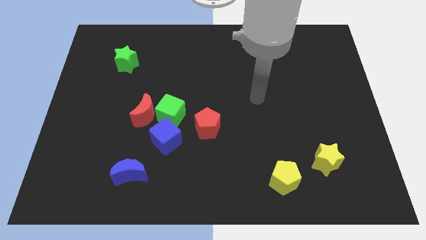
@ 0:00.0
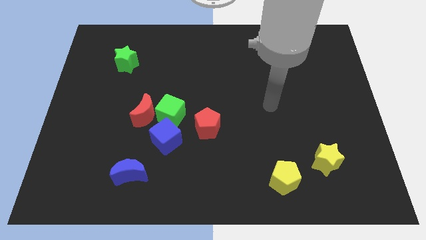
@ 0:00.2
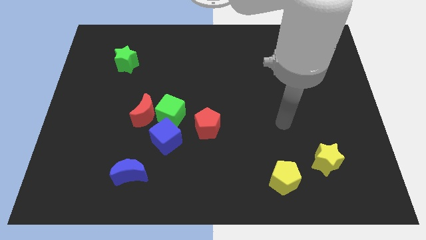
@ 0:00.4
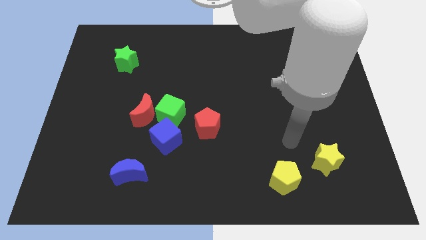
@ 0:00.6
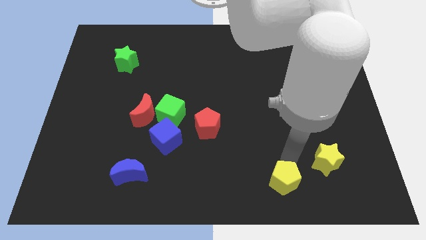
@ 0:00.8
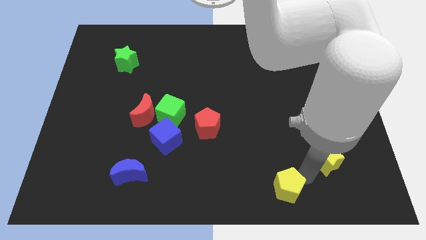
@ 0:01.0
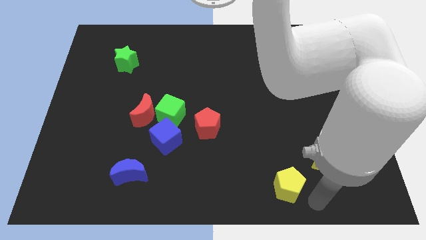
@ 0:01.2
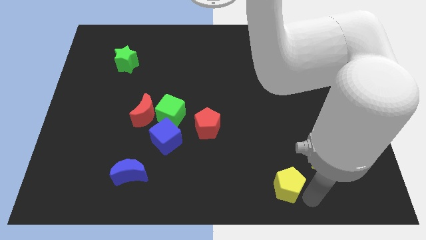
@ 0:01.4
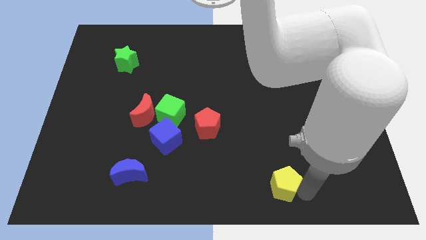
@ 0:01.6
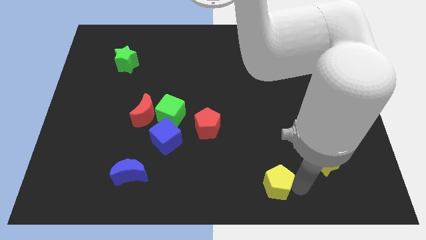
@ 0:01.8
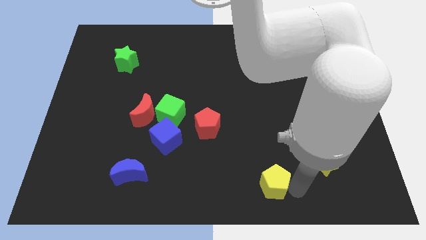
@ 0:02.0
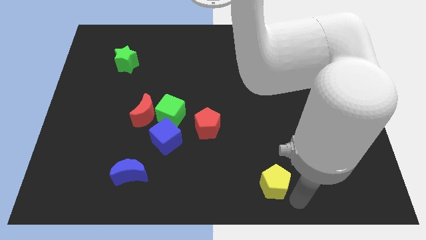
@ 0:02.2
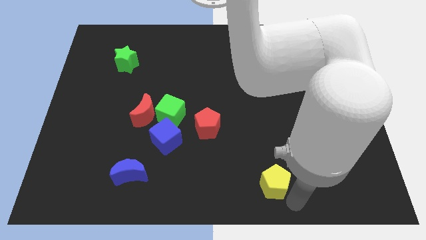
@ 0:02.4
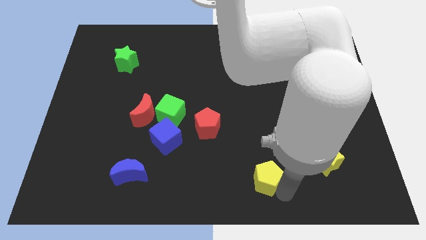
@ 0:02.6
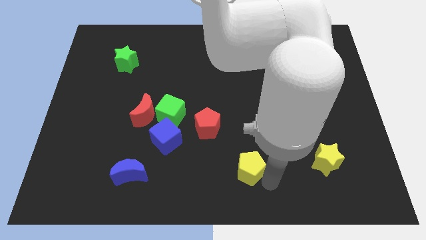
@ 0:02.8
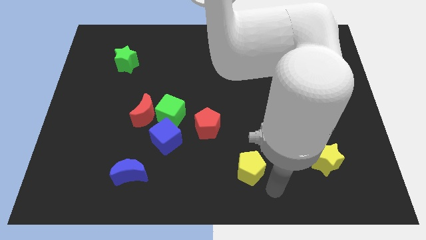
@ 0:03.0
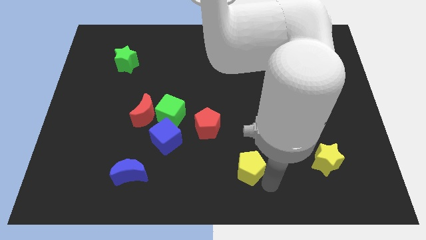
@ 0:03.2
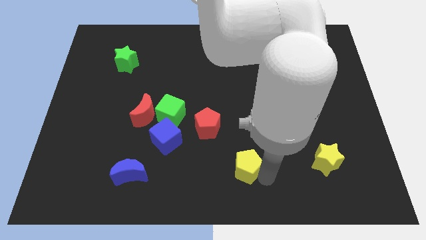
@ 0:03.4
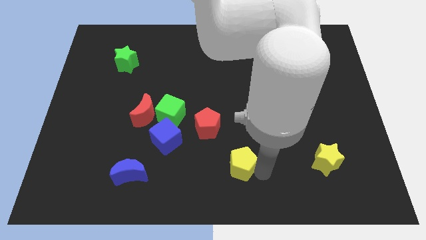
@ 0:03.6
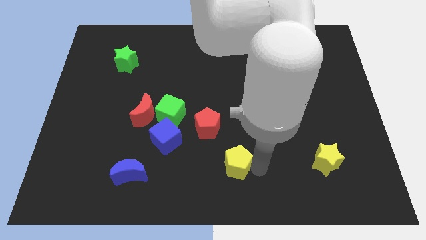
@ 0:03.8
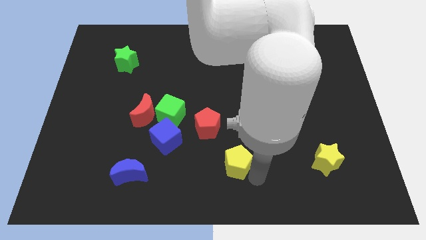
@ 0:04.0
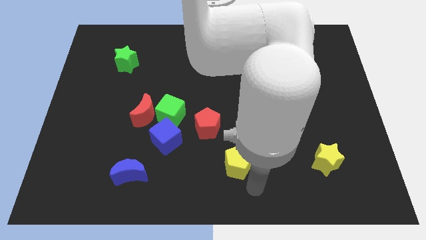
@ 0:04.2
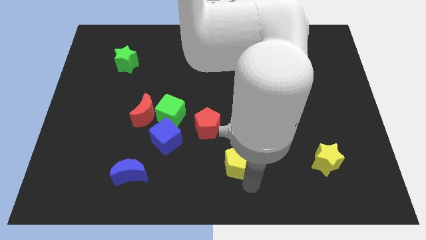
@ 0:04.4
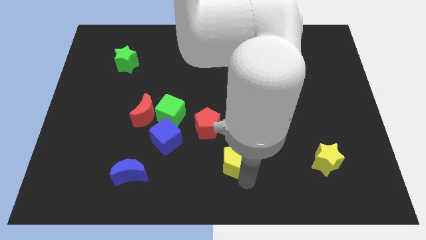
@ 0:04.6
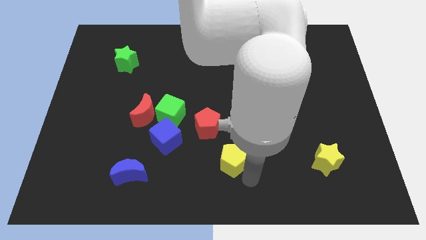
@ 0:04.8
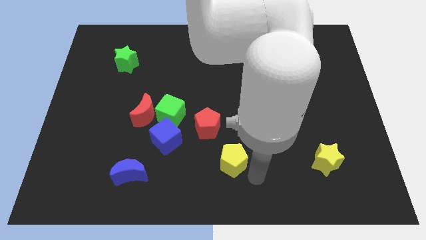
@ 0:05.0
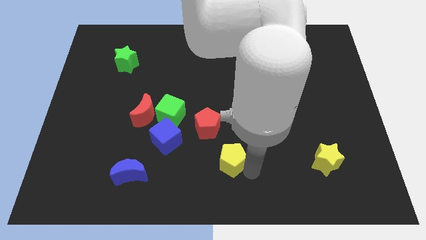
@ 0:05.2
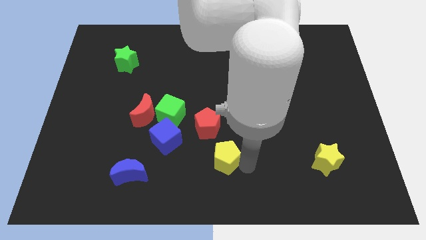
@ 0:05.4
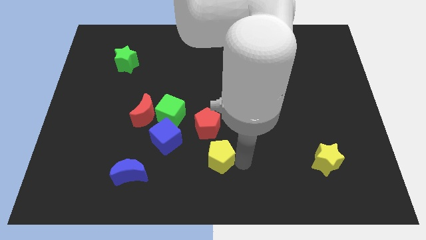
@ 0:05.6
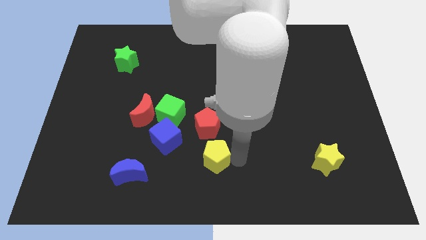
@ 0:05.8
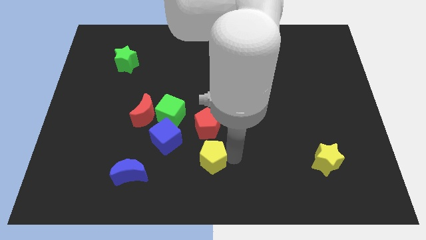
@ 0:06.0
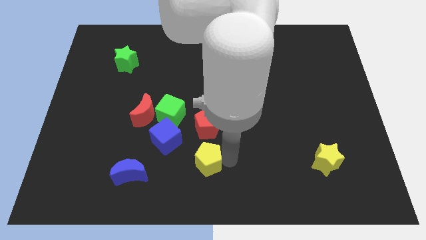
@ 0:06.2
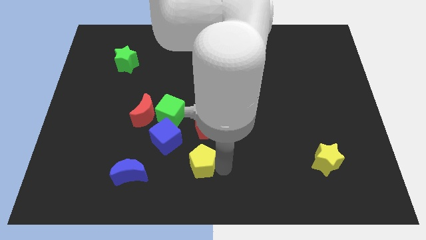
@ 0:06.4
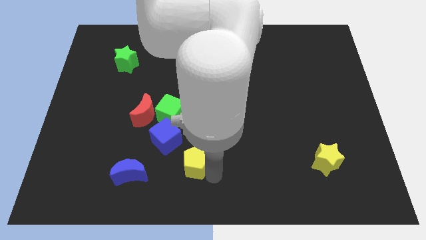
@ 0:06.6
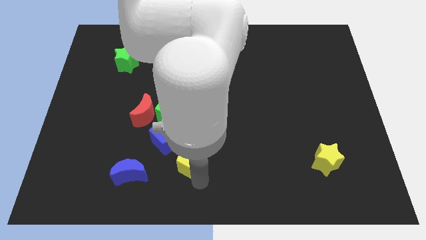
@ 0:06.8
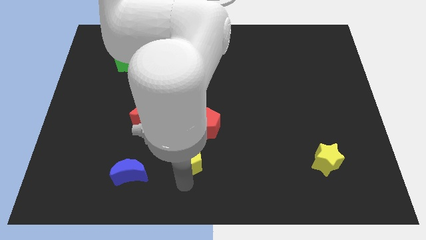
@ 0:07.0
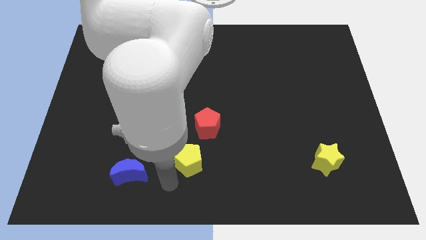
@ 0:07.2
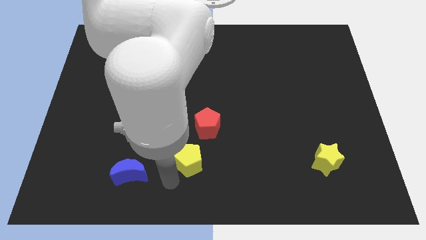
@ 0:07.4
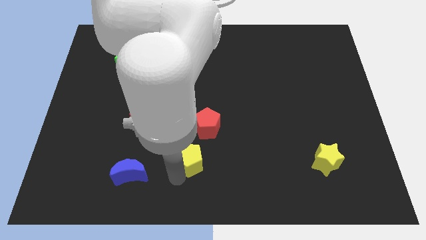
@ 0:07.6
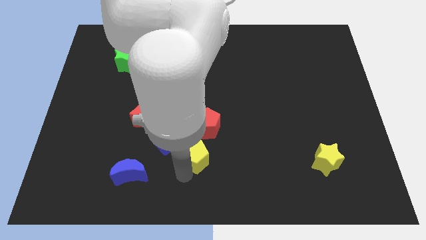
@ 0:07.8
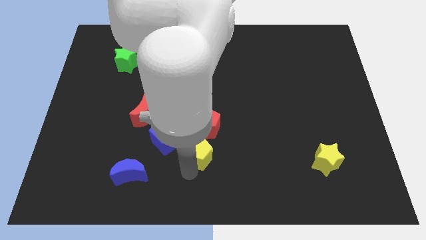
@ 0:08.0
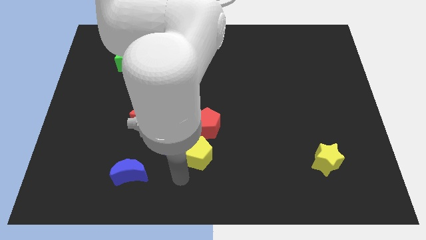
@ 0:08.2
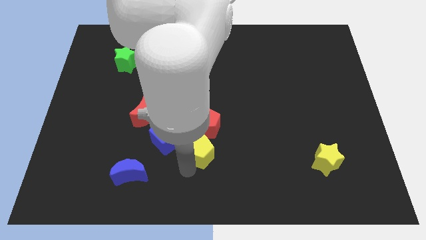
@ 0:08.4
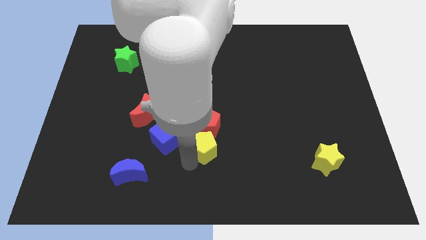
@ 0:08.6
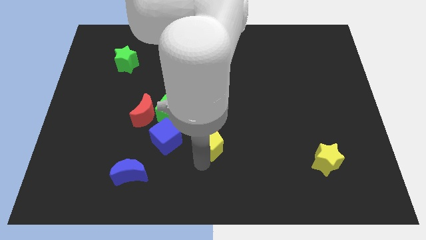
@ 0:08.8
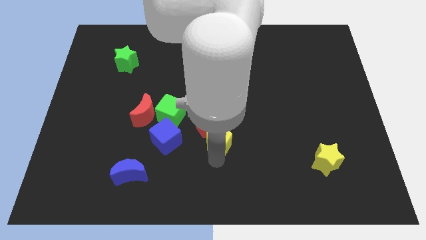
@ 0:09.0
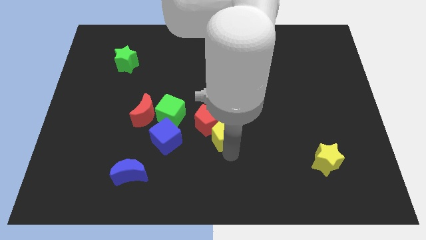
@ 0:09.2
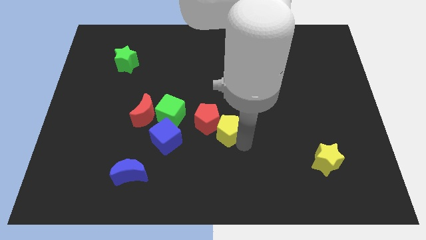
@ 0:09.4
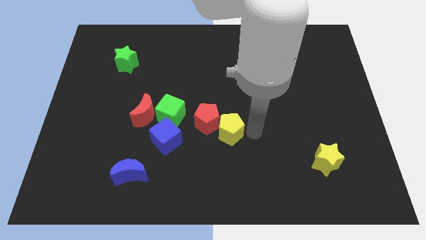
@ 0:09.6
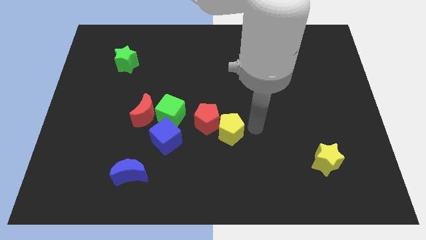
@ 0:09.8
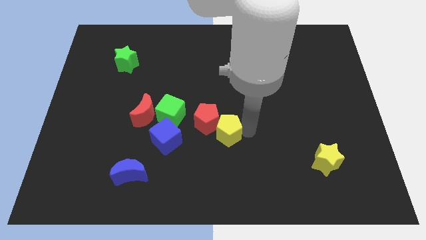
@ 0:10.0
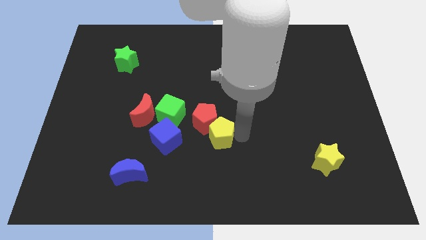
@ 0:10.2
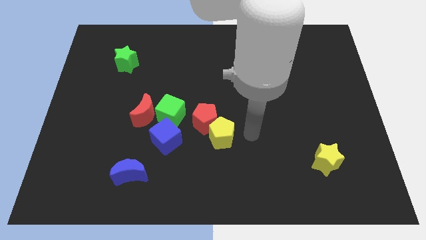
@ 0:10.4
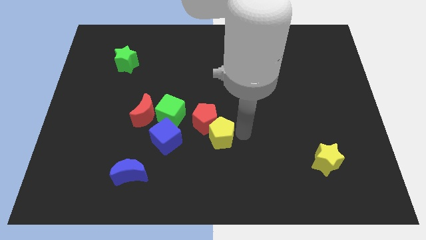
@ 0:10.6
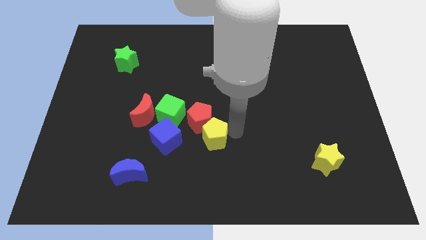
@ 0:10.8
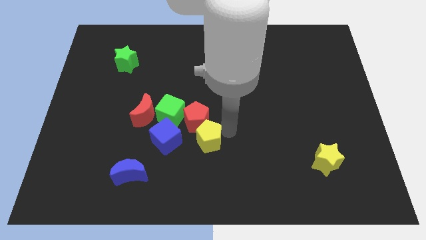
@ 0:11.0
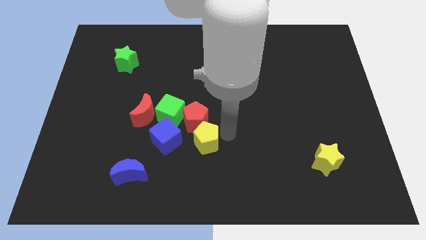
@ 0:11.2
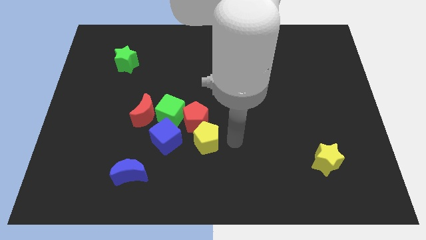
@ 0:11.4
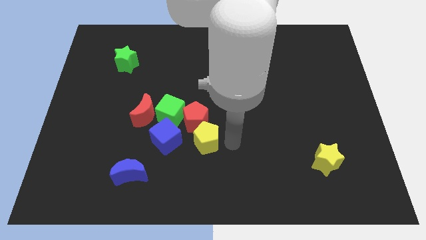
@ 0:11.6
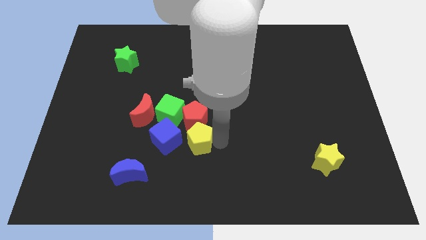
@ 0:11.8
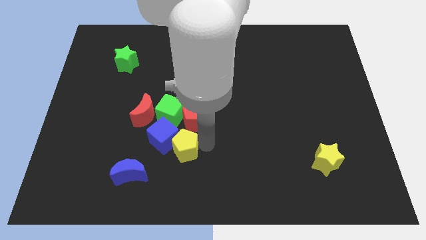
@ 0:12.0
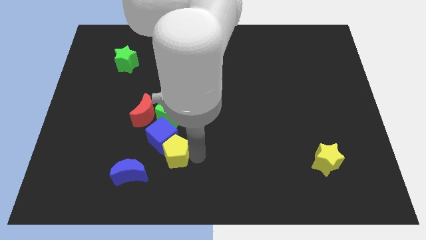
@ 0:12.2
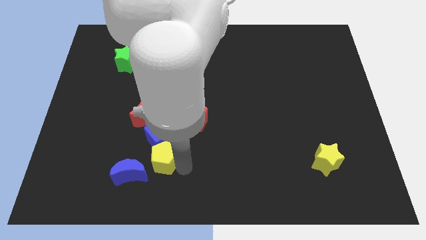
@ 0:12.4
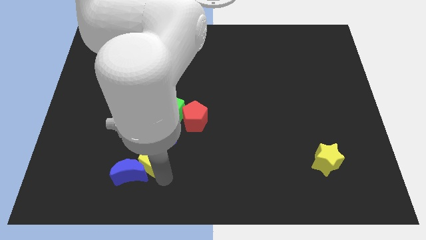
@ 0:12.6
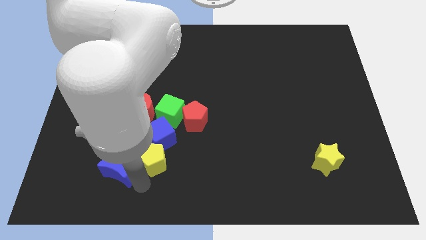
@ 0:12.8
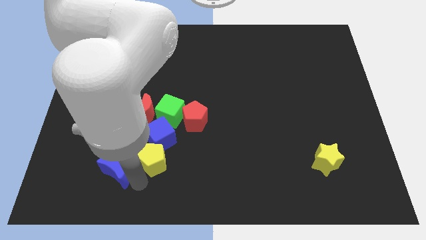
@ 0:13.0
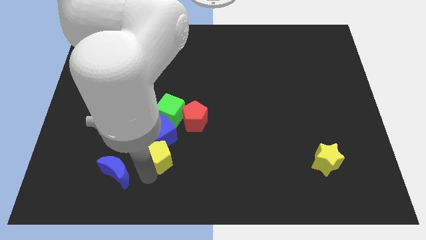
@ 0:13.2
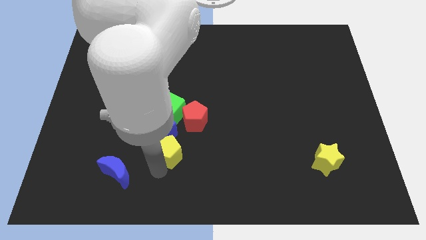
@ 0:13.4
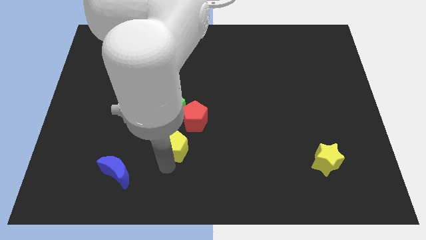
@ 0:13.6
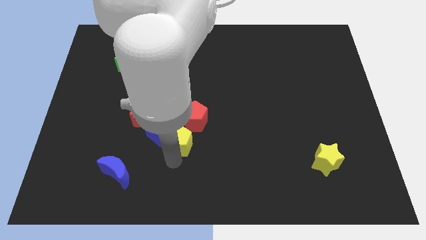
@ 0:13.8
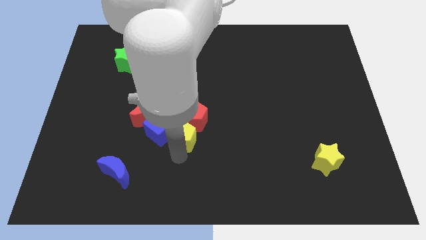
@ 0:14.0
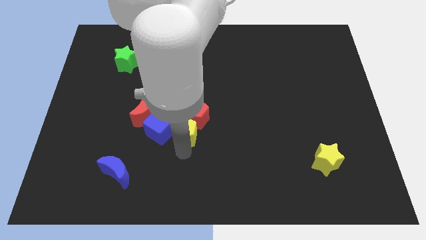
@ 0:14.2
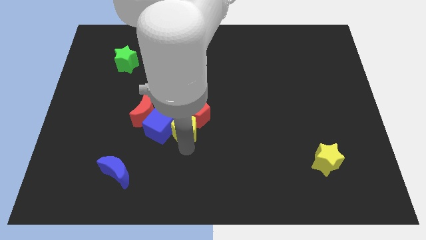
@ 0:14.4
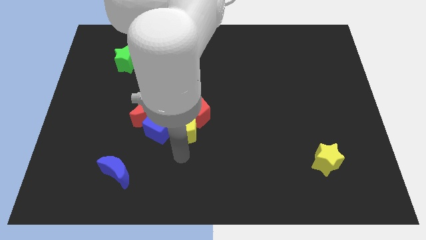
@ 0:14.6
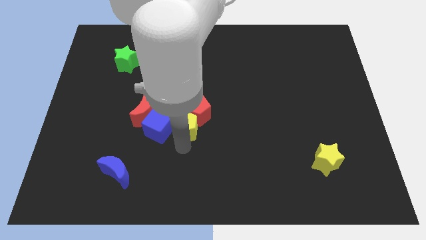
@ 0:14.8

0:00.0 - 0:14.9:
move the yellow pentagon close to the green cube
